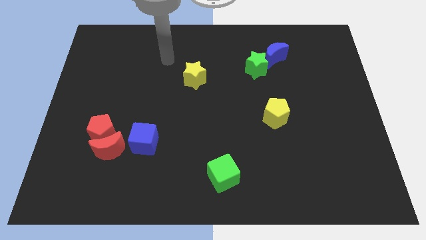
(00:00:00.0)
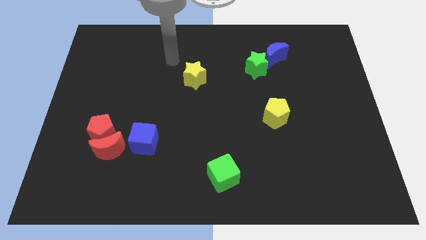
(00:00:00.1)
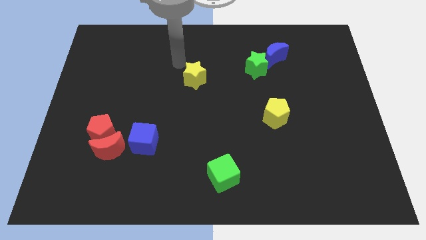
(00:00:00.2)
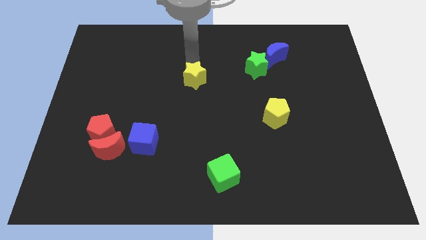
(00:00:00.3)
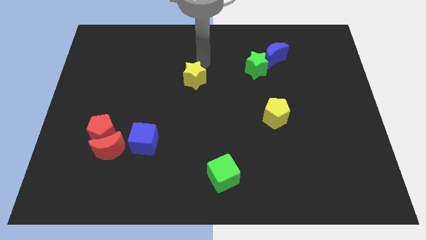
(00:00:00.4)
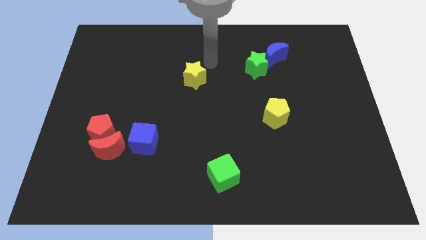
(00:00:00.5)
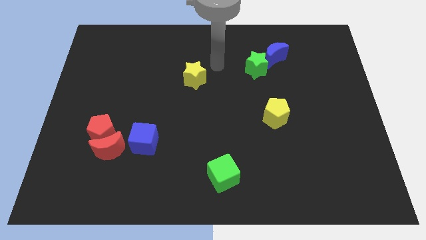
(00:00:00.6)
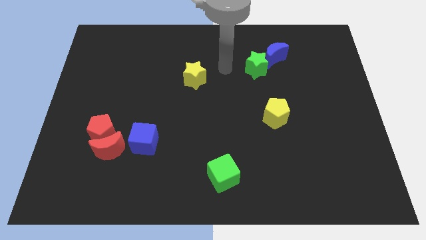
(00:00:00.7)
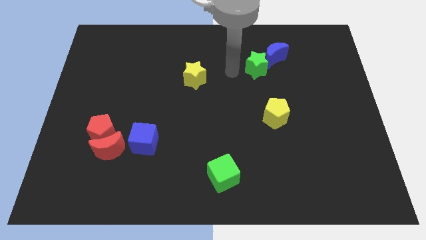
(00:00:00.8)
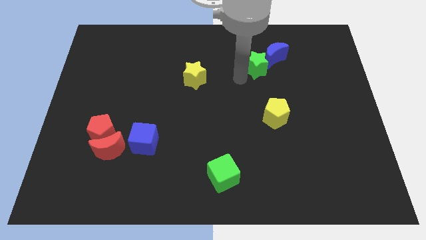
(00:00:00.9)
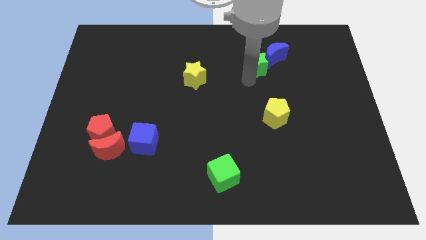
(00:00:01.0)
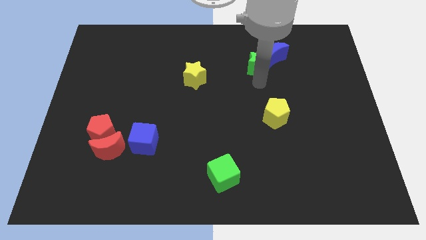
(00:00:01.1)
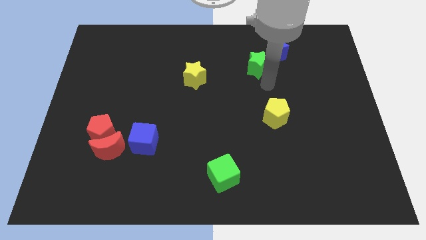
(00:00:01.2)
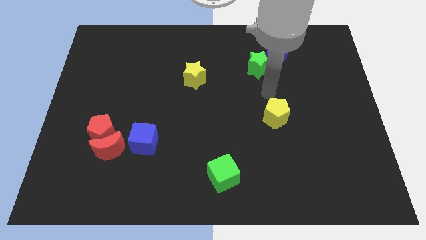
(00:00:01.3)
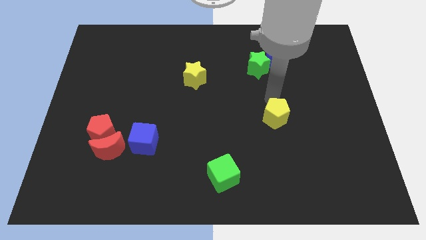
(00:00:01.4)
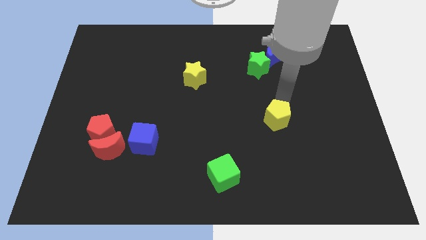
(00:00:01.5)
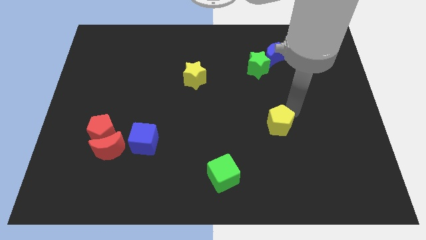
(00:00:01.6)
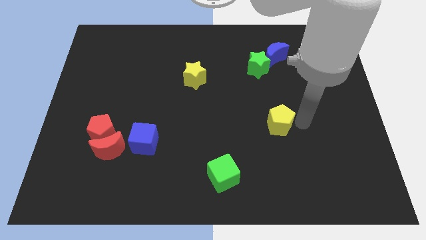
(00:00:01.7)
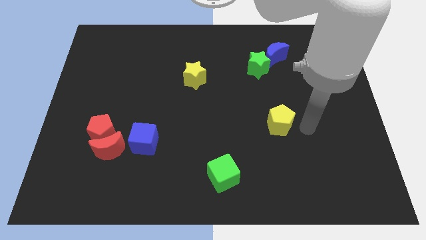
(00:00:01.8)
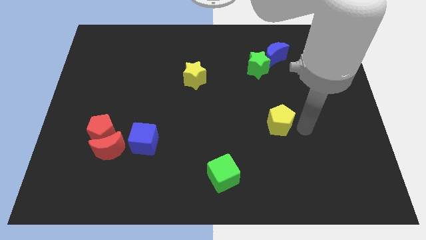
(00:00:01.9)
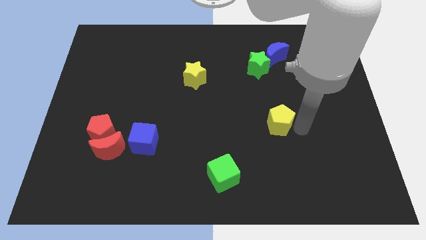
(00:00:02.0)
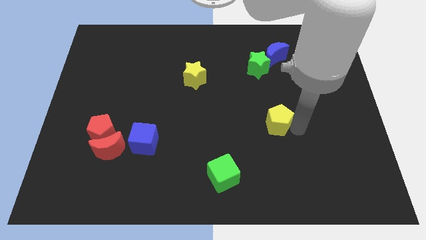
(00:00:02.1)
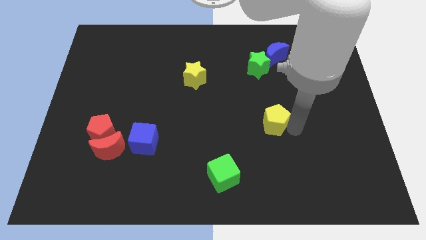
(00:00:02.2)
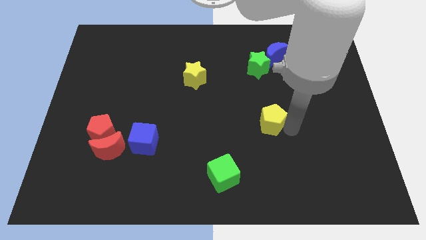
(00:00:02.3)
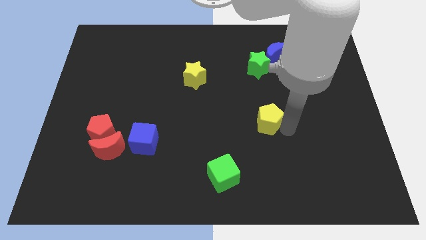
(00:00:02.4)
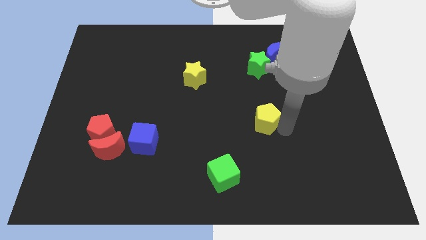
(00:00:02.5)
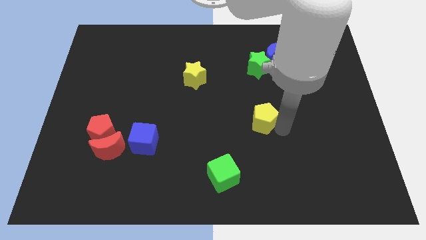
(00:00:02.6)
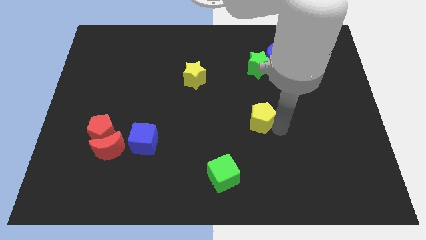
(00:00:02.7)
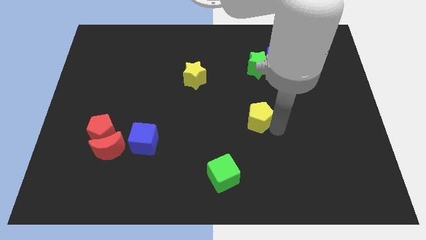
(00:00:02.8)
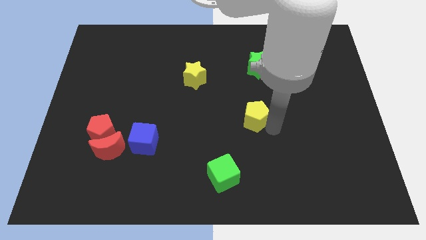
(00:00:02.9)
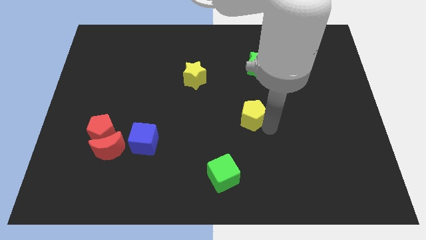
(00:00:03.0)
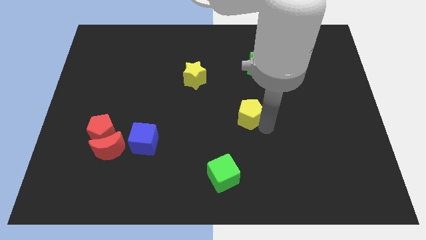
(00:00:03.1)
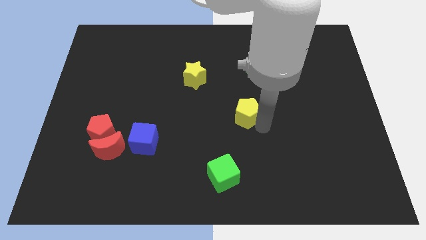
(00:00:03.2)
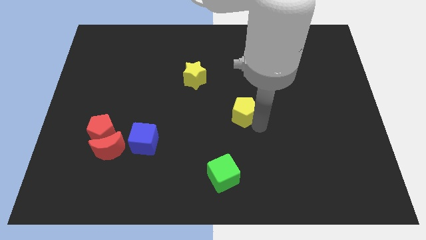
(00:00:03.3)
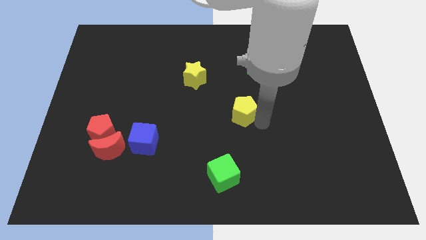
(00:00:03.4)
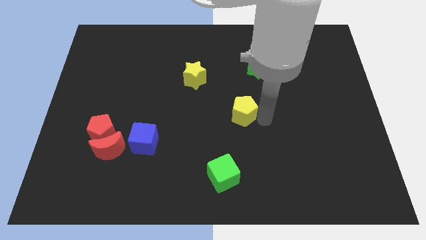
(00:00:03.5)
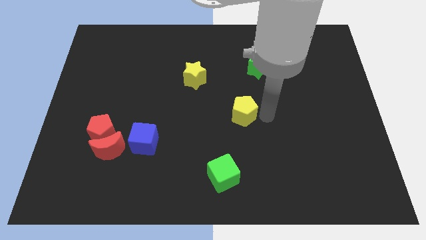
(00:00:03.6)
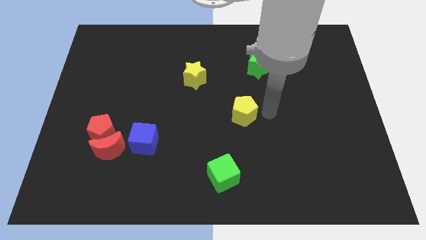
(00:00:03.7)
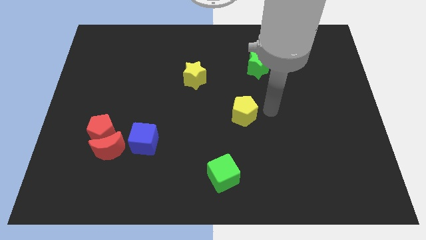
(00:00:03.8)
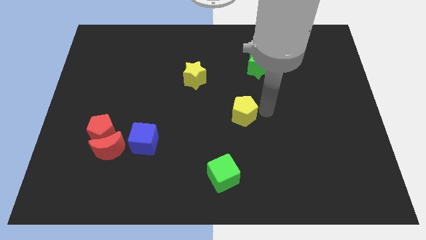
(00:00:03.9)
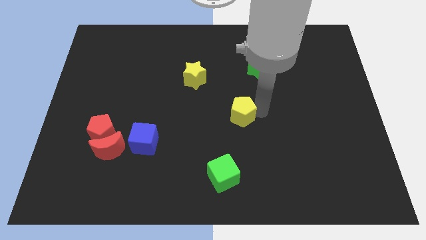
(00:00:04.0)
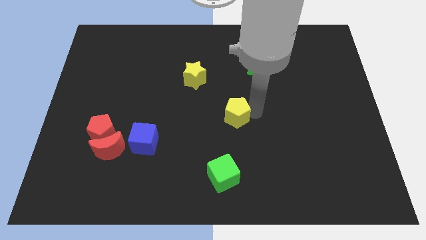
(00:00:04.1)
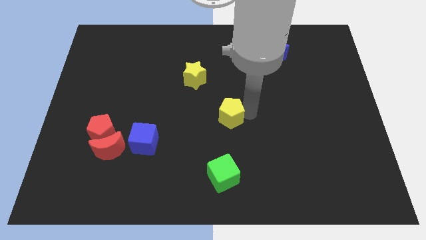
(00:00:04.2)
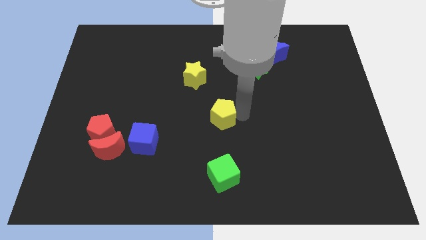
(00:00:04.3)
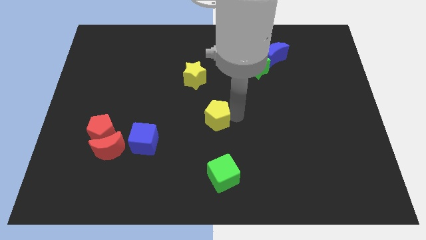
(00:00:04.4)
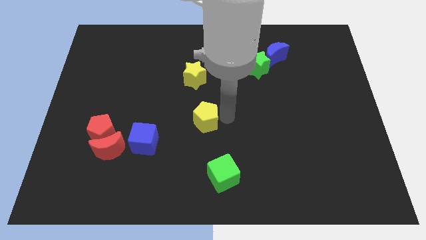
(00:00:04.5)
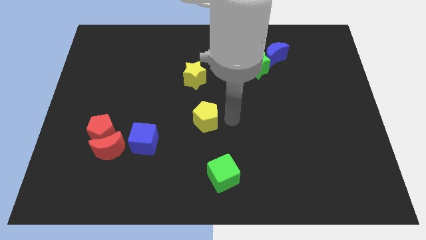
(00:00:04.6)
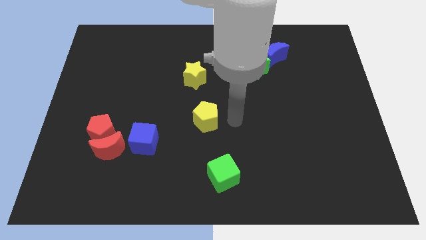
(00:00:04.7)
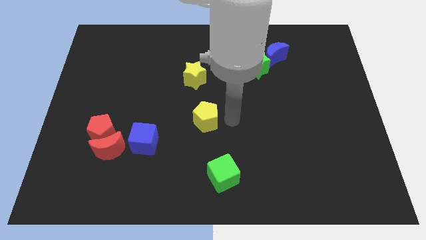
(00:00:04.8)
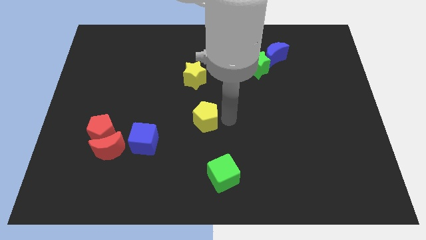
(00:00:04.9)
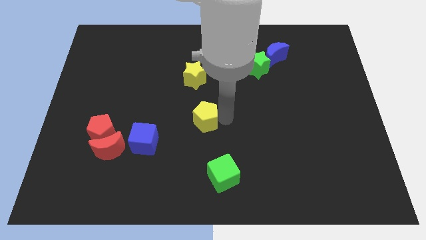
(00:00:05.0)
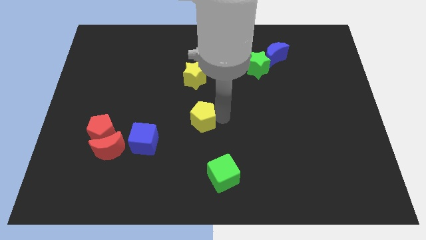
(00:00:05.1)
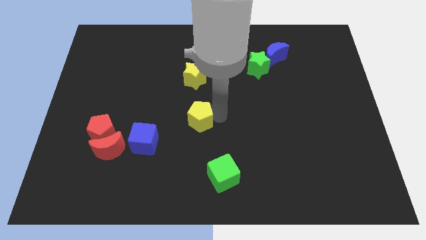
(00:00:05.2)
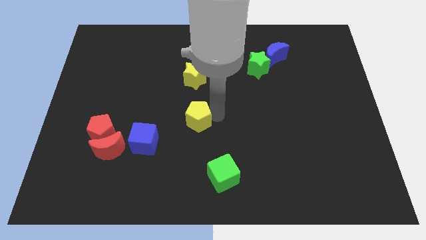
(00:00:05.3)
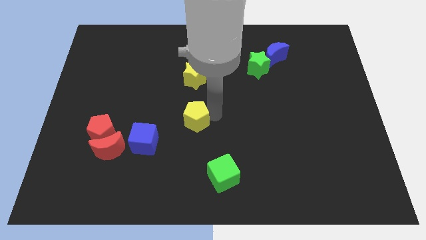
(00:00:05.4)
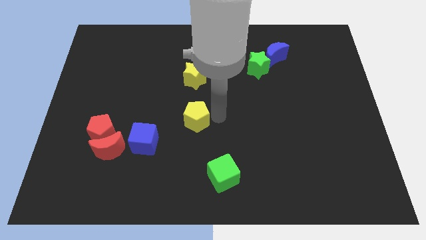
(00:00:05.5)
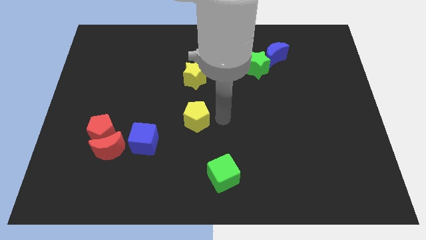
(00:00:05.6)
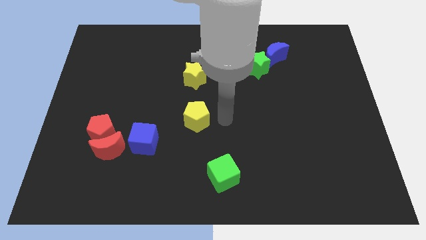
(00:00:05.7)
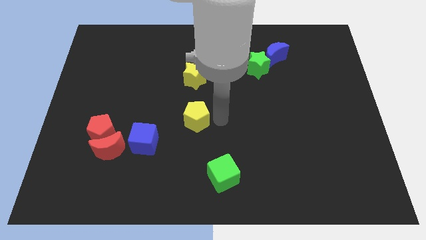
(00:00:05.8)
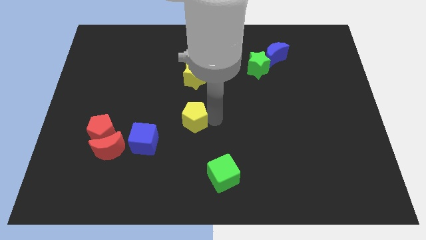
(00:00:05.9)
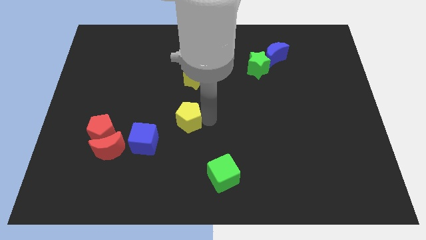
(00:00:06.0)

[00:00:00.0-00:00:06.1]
slide the yellow pentagon to the left

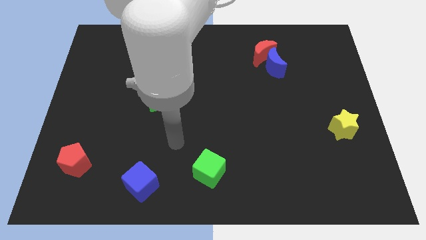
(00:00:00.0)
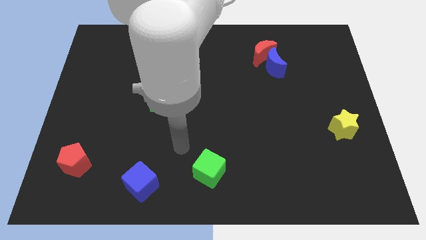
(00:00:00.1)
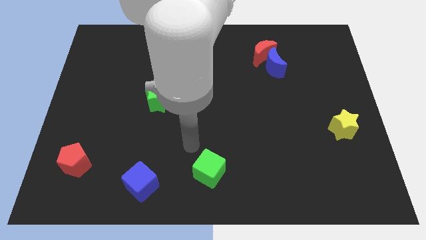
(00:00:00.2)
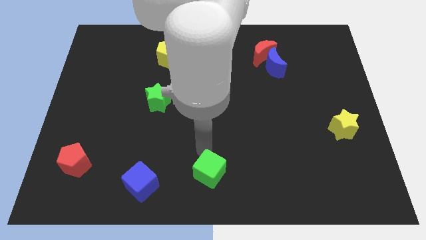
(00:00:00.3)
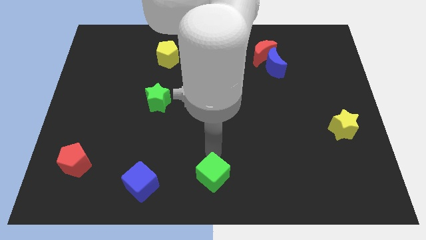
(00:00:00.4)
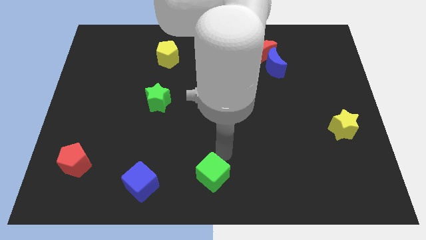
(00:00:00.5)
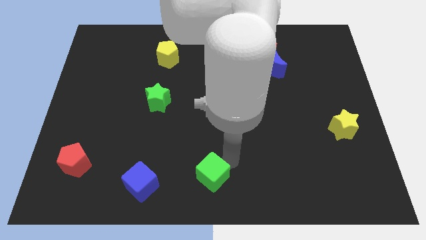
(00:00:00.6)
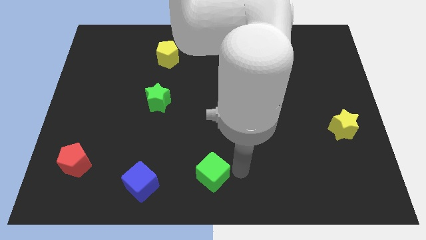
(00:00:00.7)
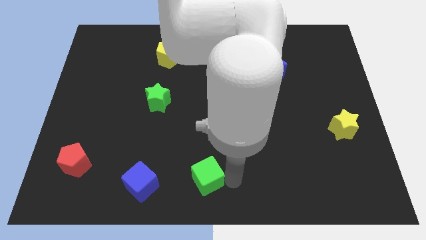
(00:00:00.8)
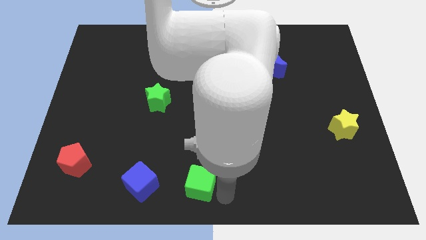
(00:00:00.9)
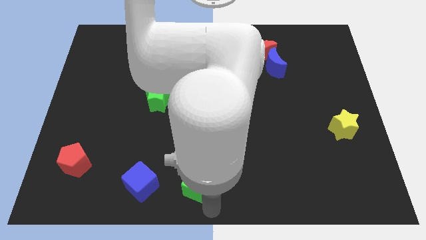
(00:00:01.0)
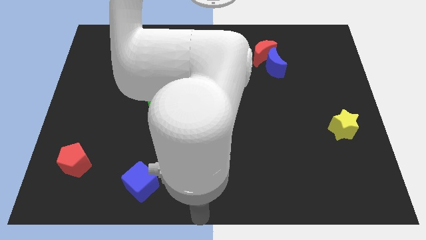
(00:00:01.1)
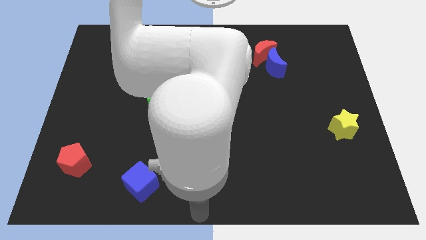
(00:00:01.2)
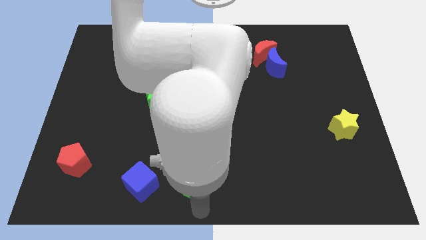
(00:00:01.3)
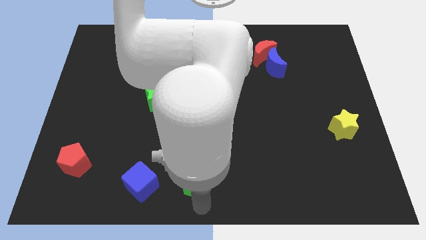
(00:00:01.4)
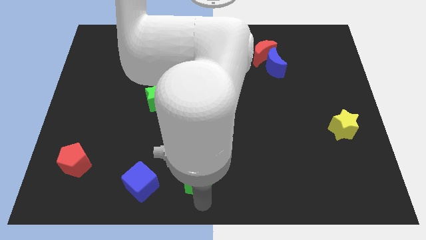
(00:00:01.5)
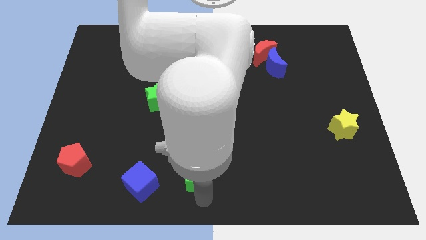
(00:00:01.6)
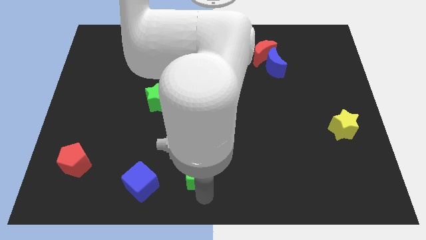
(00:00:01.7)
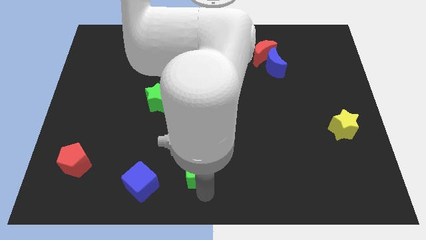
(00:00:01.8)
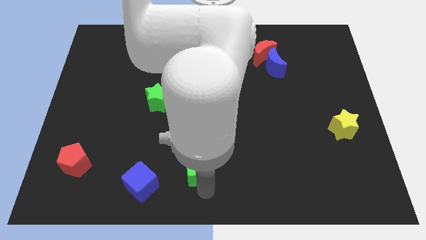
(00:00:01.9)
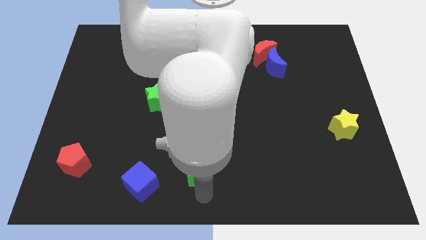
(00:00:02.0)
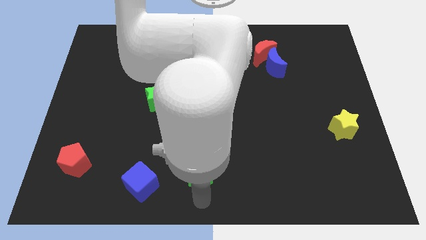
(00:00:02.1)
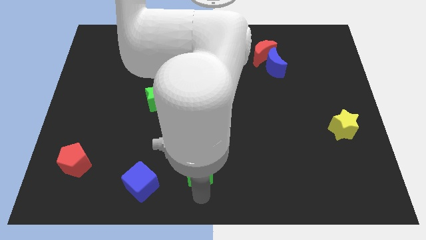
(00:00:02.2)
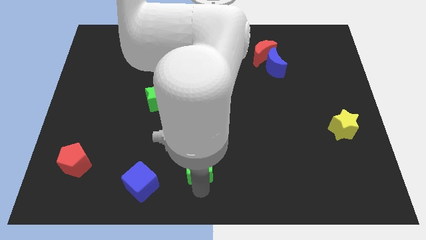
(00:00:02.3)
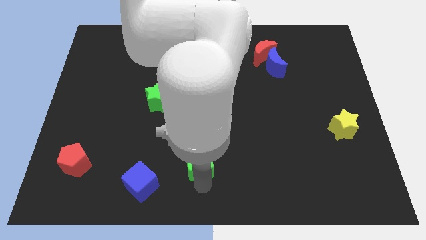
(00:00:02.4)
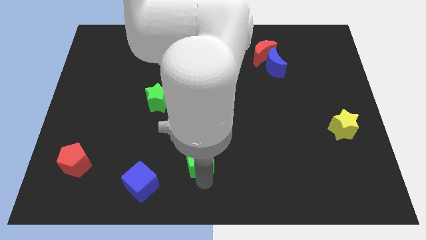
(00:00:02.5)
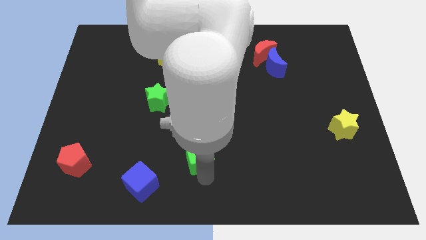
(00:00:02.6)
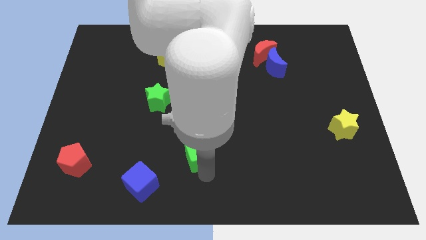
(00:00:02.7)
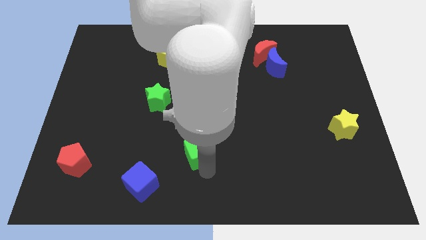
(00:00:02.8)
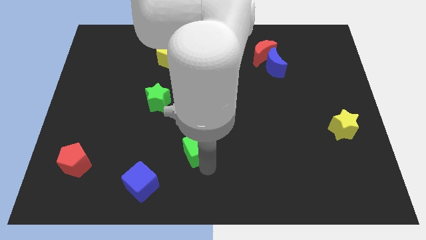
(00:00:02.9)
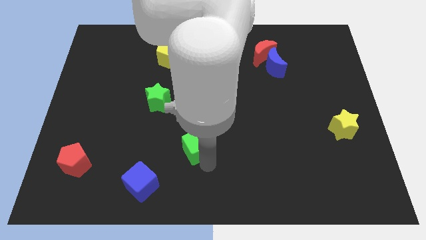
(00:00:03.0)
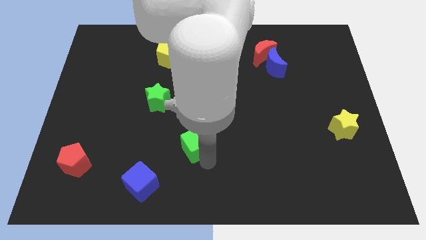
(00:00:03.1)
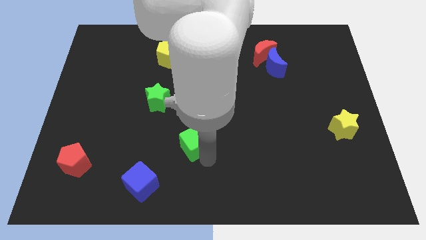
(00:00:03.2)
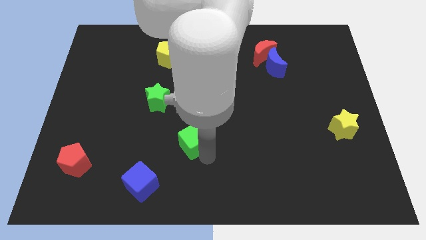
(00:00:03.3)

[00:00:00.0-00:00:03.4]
slightly slide the green cube diagonally upwards and left
